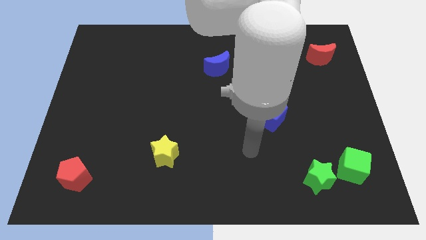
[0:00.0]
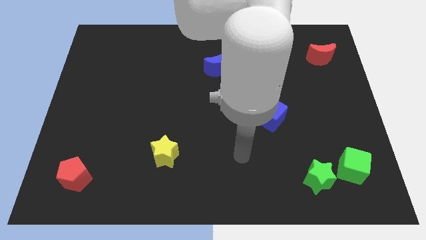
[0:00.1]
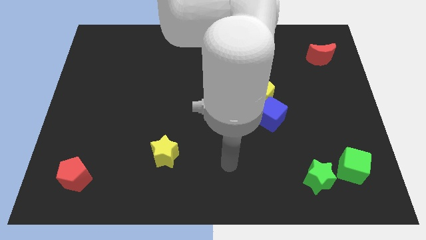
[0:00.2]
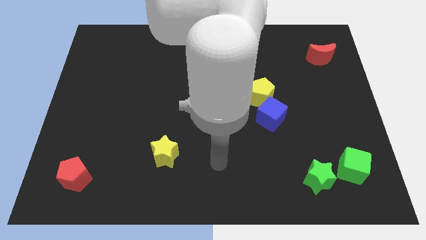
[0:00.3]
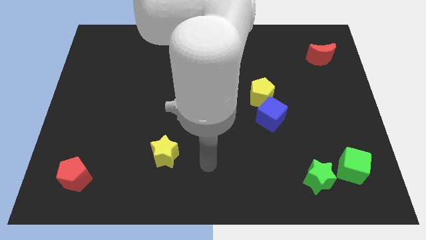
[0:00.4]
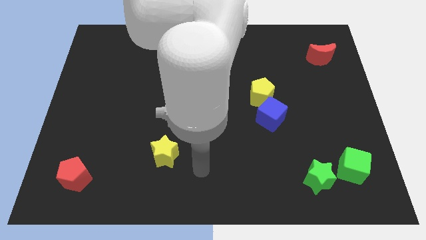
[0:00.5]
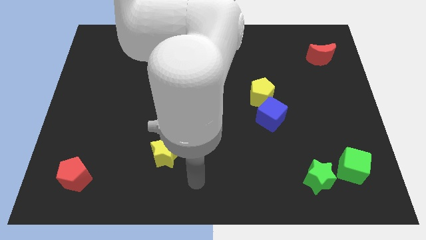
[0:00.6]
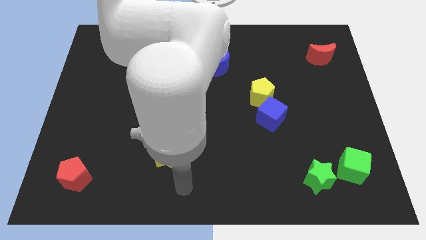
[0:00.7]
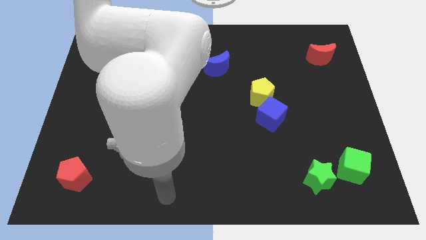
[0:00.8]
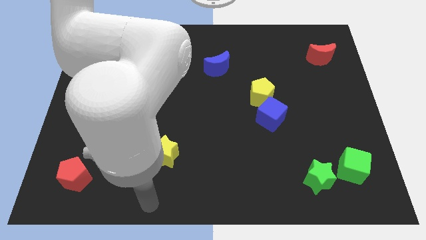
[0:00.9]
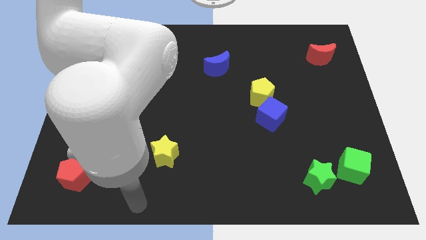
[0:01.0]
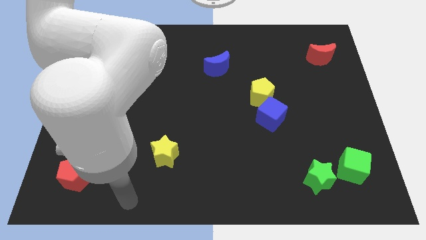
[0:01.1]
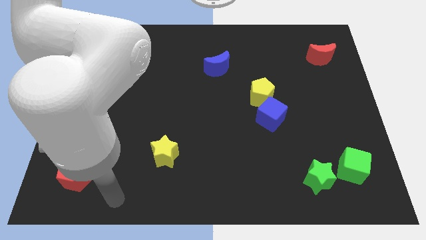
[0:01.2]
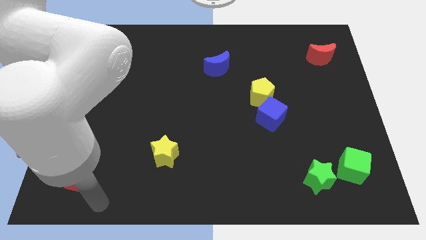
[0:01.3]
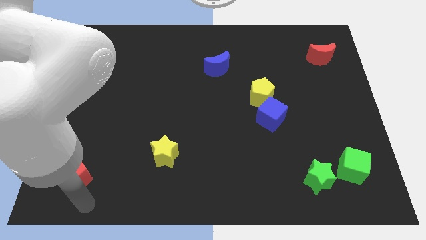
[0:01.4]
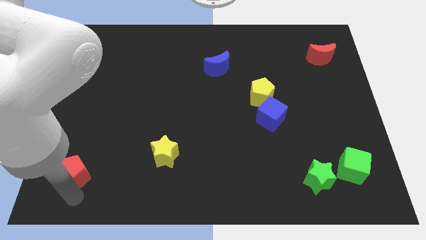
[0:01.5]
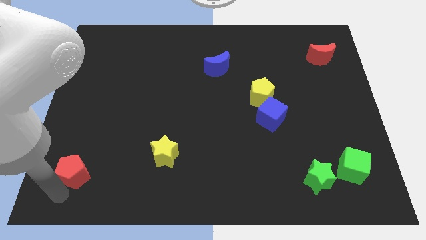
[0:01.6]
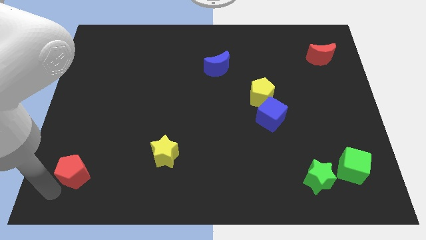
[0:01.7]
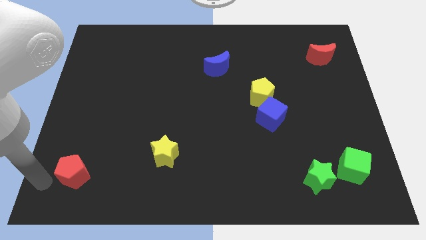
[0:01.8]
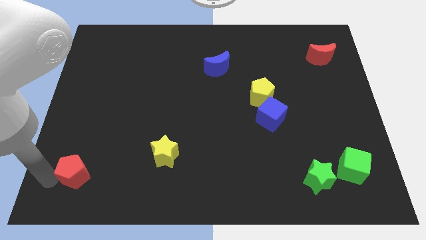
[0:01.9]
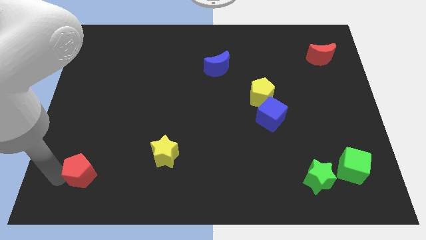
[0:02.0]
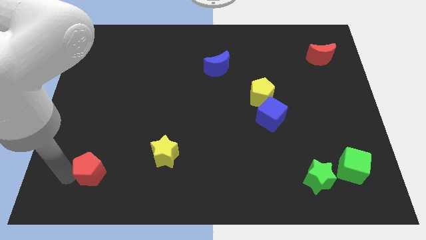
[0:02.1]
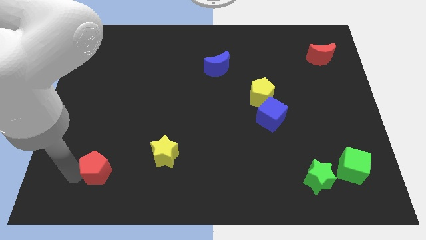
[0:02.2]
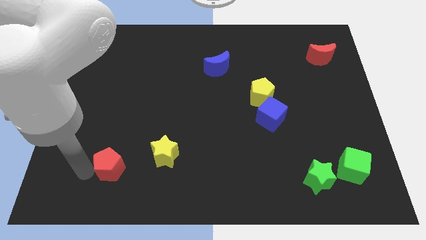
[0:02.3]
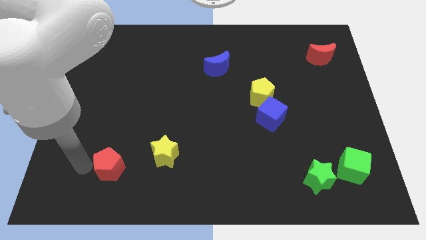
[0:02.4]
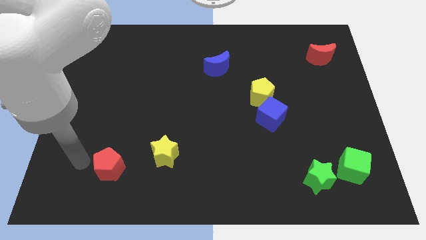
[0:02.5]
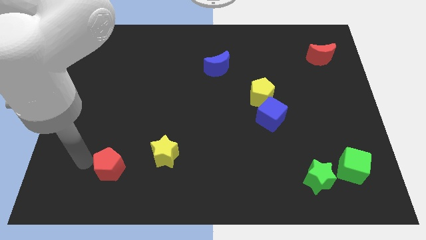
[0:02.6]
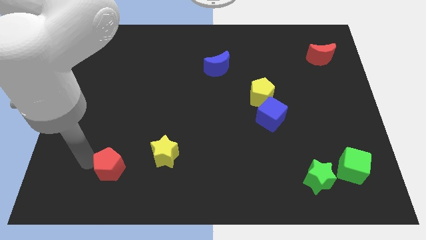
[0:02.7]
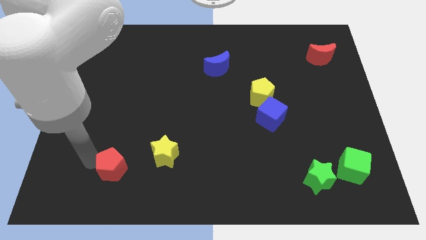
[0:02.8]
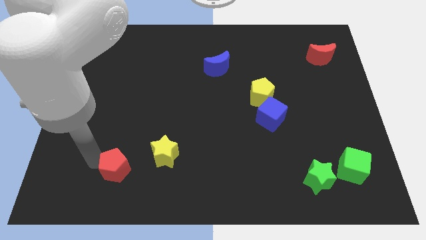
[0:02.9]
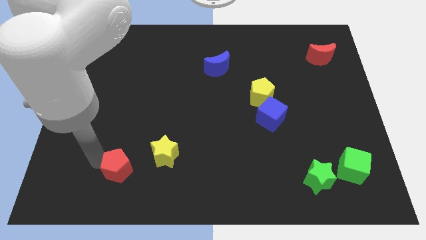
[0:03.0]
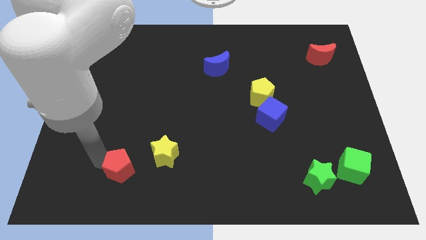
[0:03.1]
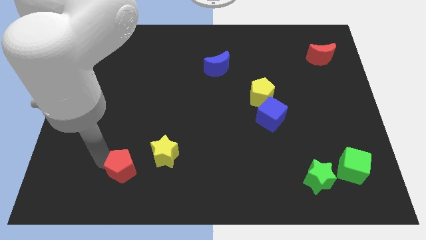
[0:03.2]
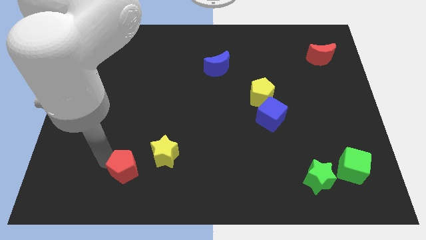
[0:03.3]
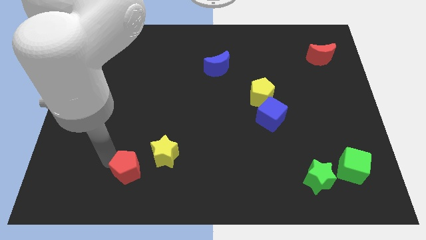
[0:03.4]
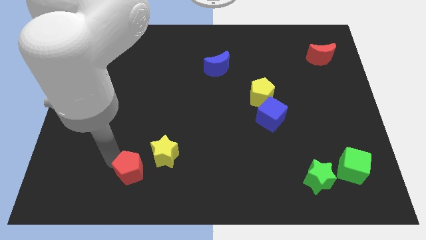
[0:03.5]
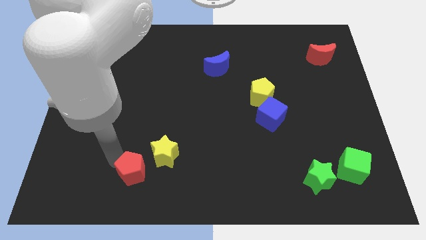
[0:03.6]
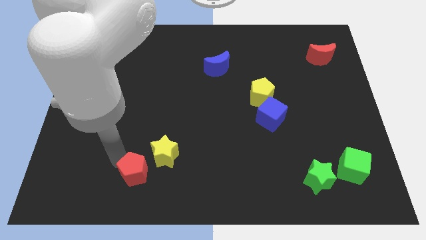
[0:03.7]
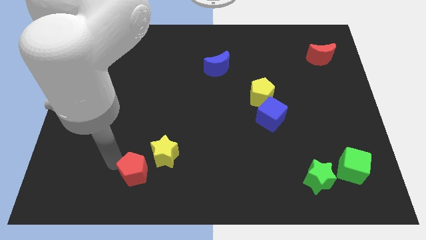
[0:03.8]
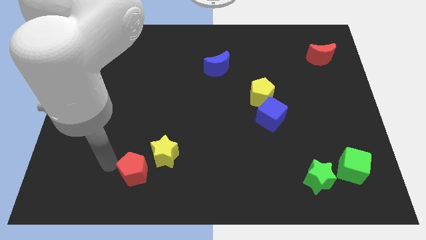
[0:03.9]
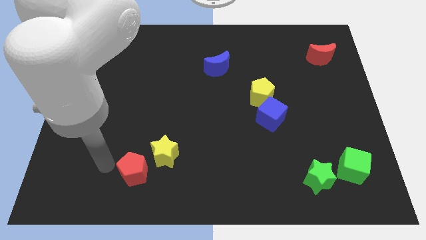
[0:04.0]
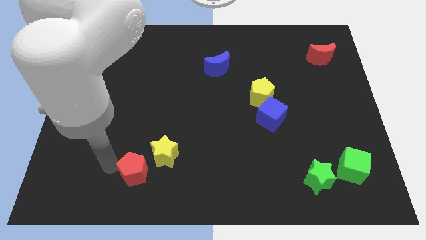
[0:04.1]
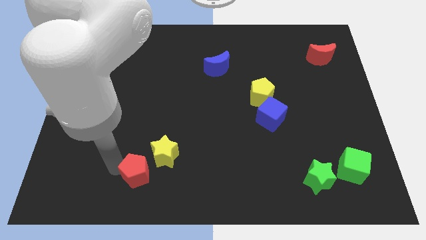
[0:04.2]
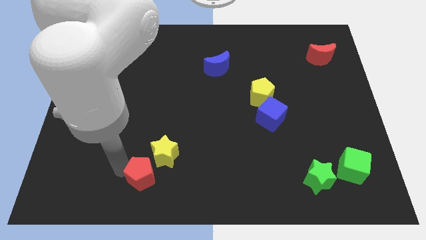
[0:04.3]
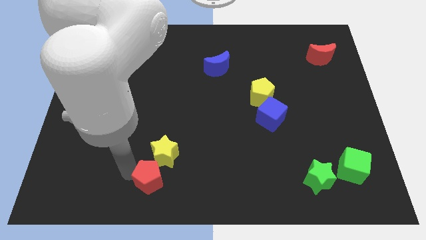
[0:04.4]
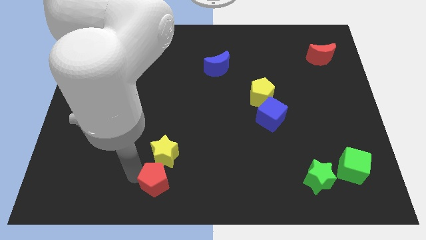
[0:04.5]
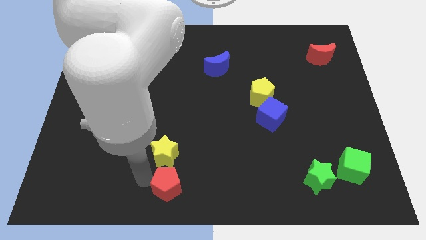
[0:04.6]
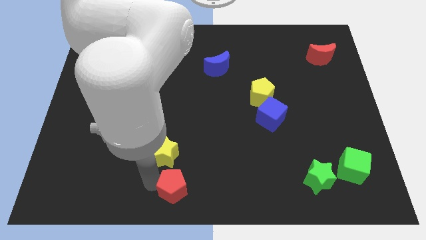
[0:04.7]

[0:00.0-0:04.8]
move the red pentagon right

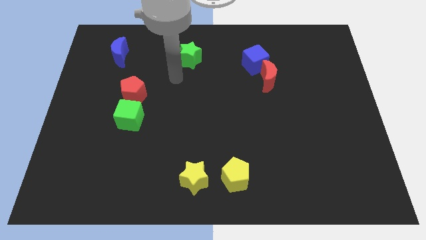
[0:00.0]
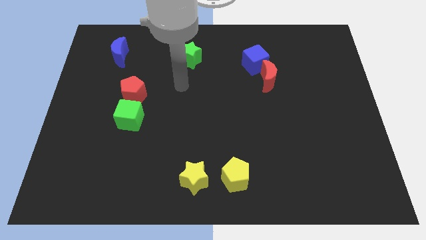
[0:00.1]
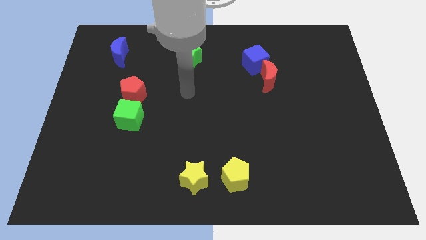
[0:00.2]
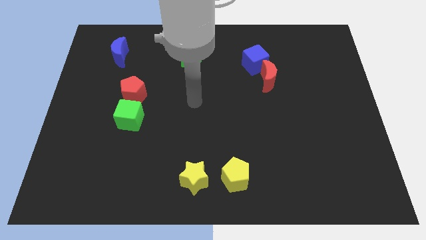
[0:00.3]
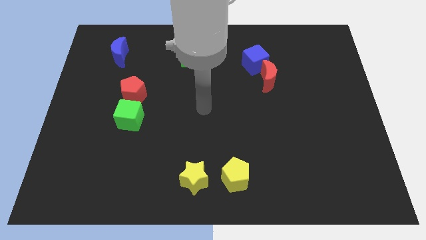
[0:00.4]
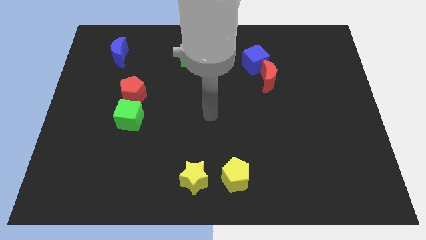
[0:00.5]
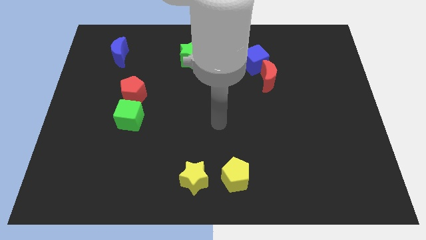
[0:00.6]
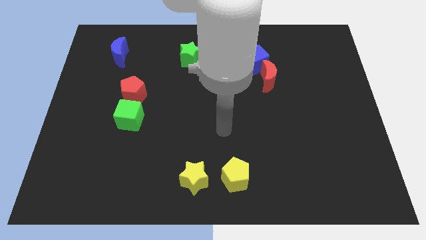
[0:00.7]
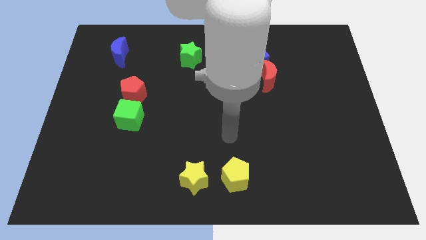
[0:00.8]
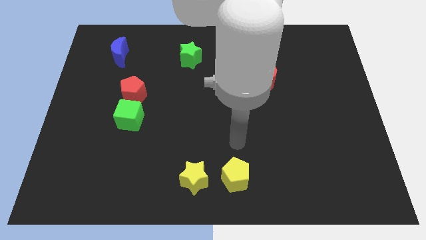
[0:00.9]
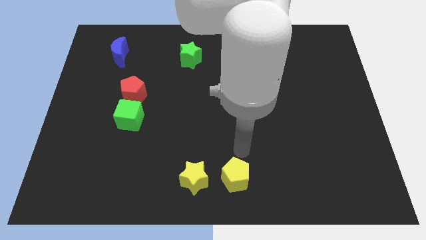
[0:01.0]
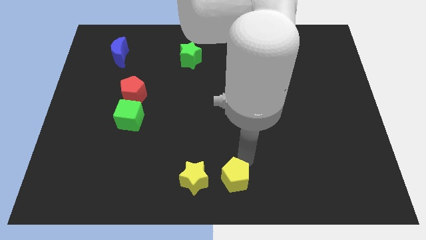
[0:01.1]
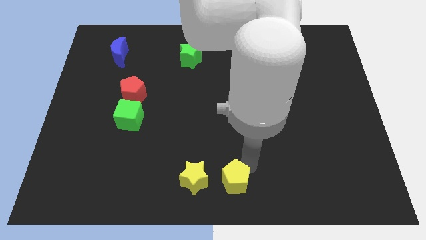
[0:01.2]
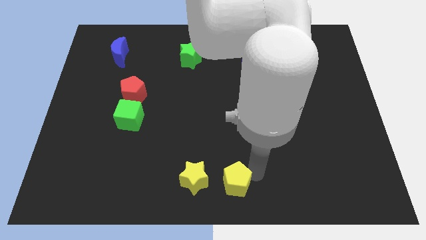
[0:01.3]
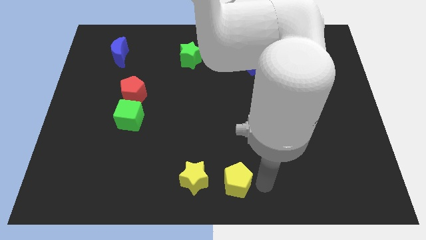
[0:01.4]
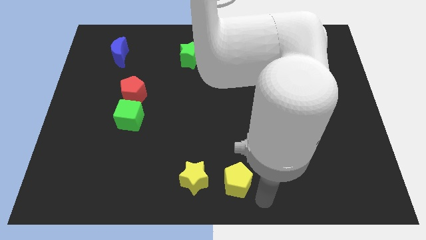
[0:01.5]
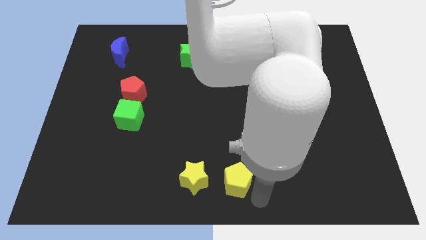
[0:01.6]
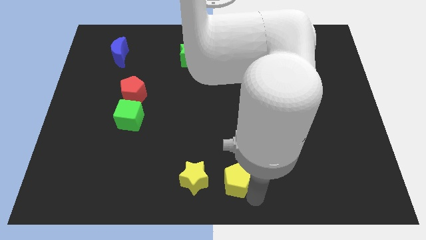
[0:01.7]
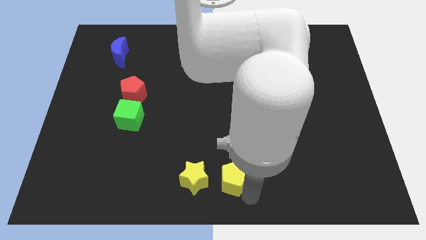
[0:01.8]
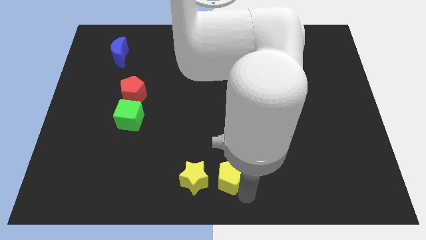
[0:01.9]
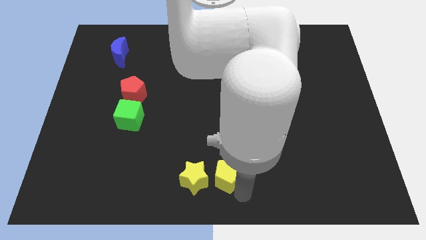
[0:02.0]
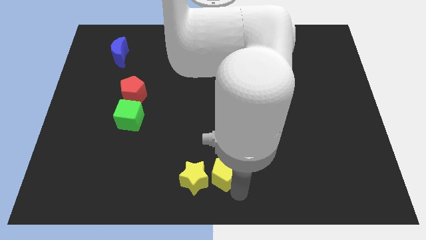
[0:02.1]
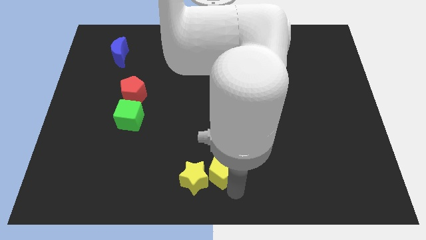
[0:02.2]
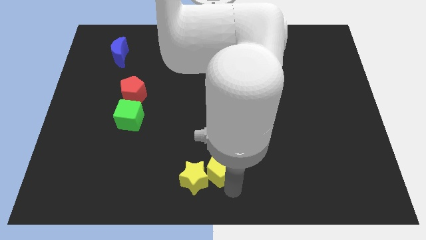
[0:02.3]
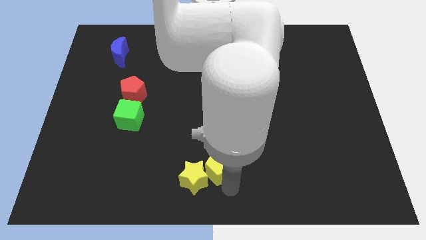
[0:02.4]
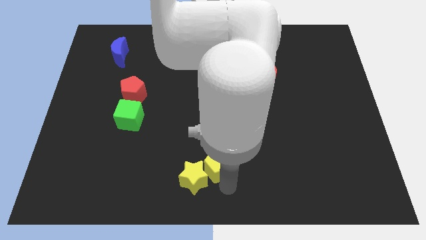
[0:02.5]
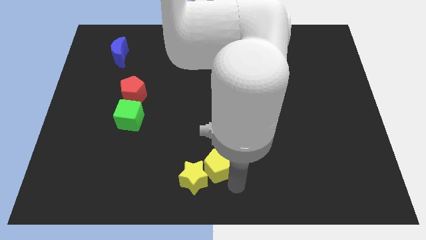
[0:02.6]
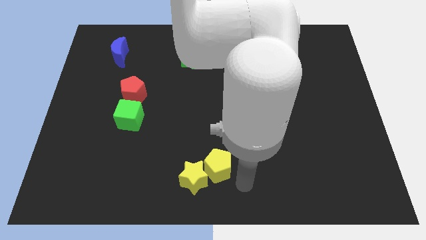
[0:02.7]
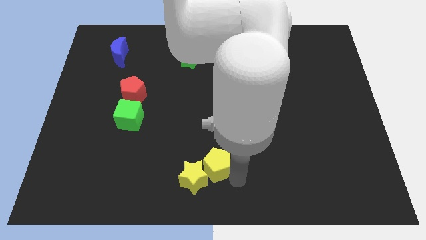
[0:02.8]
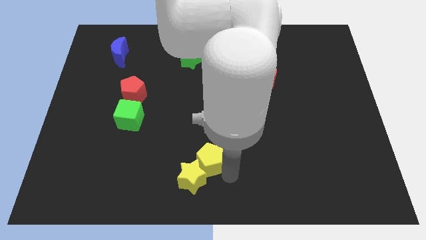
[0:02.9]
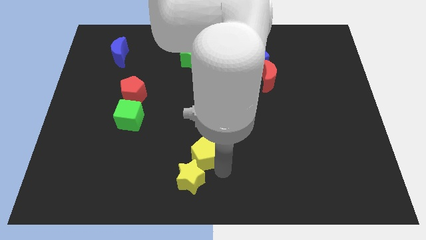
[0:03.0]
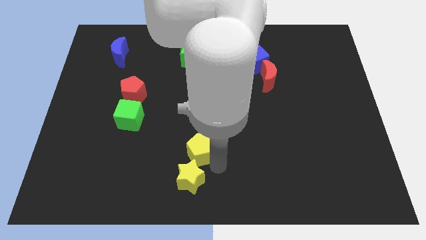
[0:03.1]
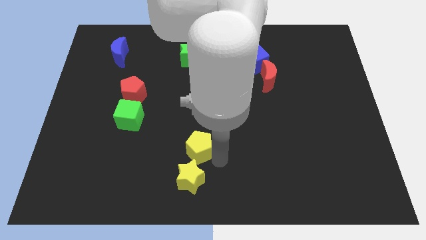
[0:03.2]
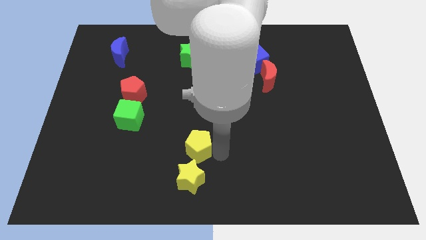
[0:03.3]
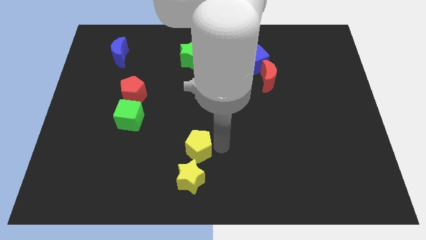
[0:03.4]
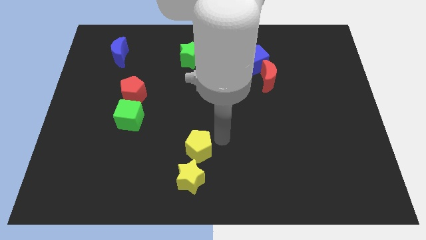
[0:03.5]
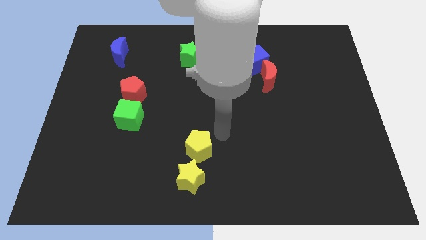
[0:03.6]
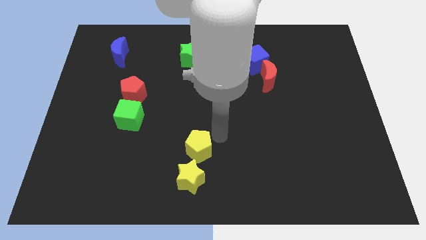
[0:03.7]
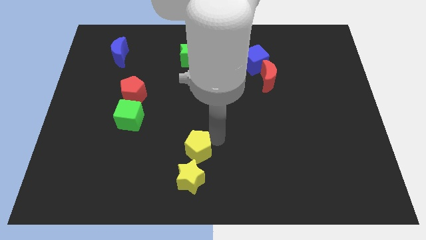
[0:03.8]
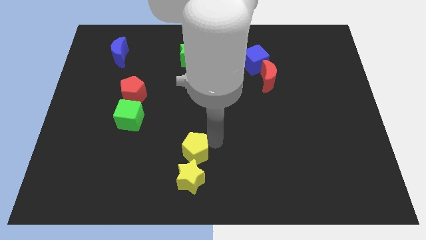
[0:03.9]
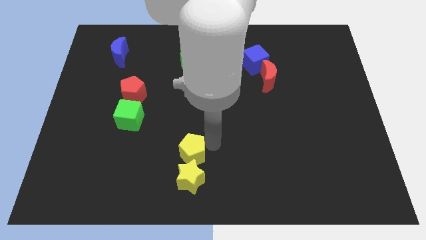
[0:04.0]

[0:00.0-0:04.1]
slightly slide the yellow pentagon to the left
